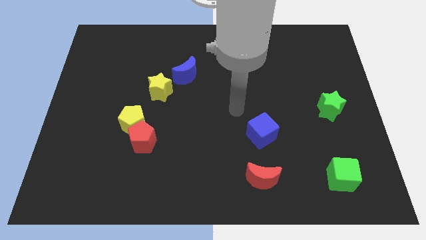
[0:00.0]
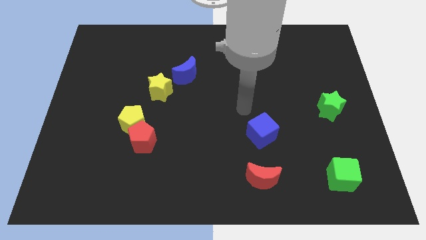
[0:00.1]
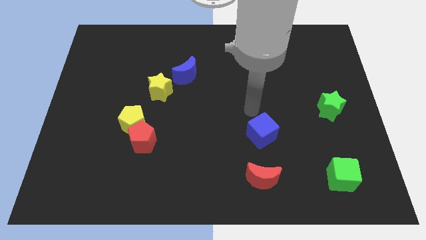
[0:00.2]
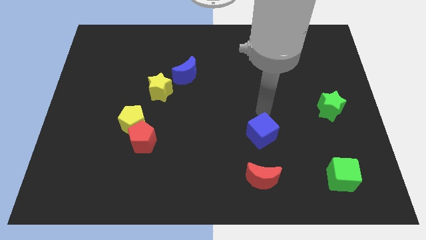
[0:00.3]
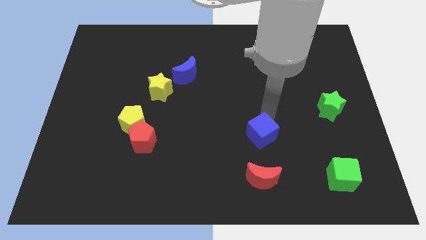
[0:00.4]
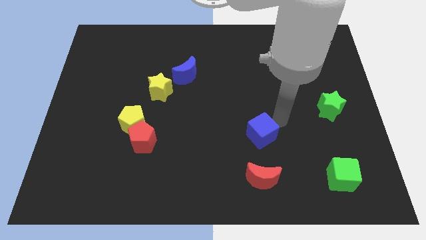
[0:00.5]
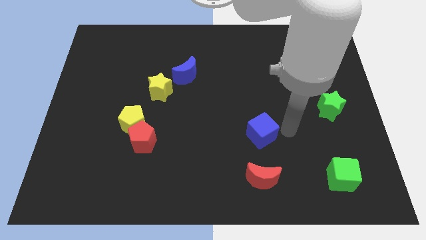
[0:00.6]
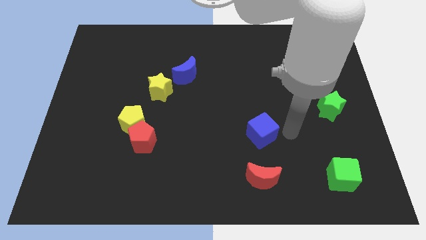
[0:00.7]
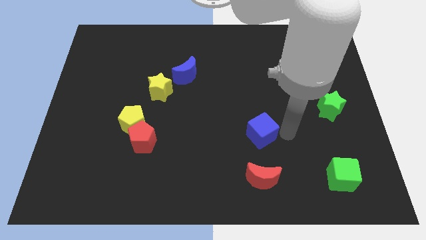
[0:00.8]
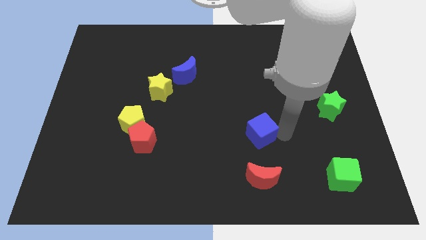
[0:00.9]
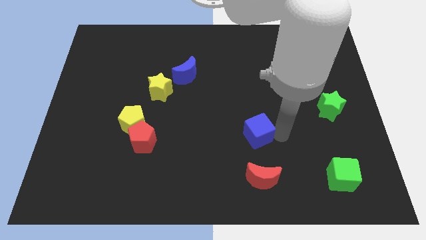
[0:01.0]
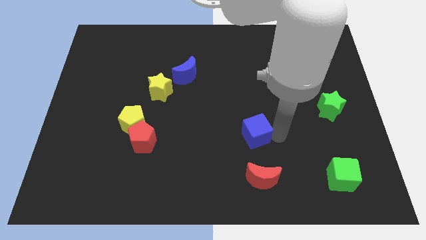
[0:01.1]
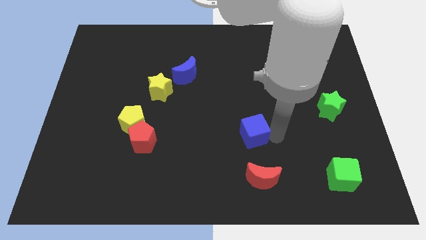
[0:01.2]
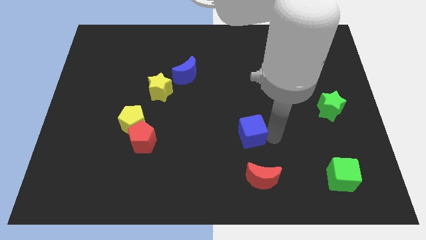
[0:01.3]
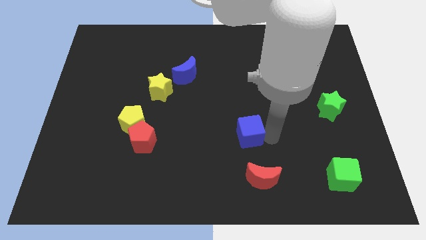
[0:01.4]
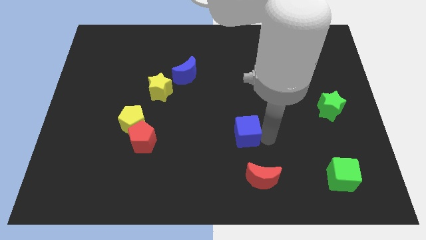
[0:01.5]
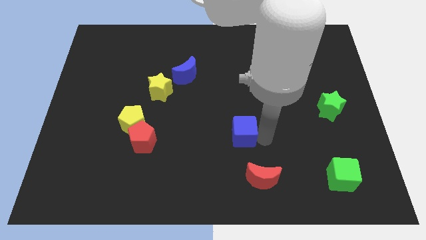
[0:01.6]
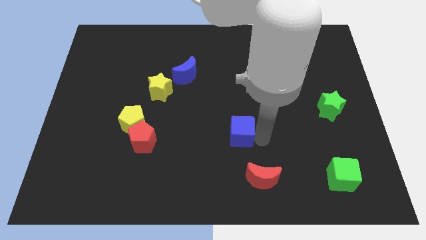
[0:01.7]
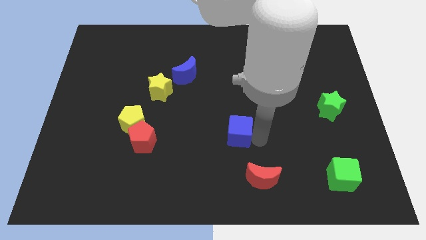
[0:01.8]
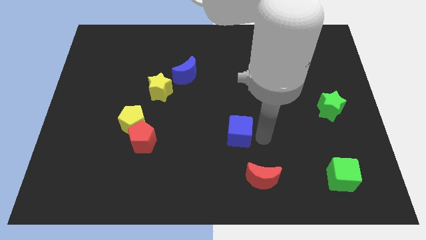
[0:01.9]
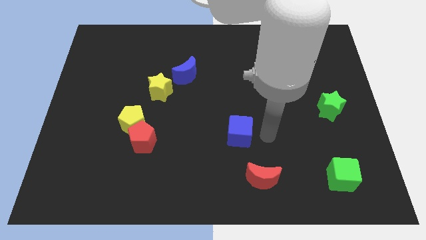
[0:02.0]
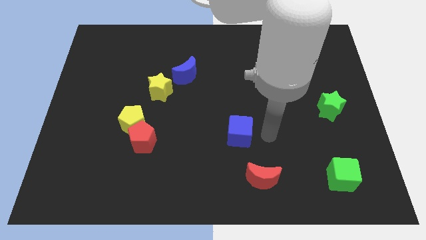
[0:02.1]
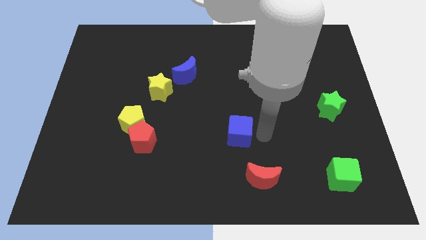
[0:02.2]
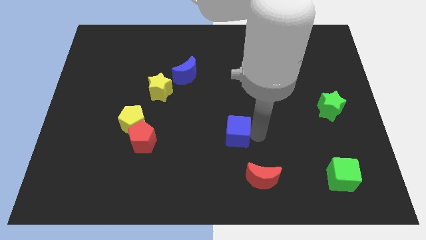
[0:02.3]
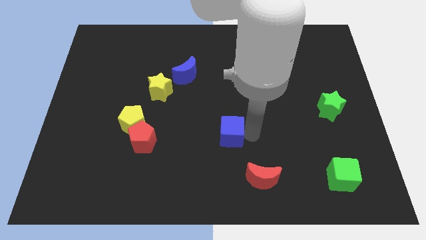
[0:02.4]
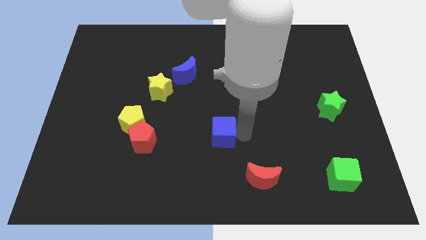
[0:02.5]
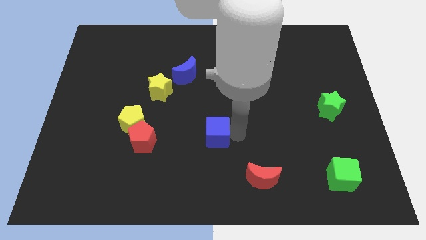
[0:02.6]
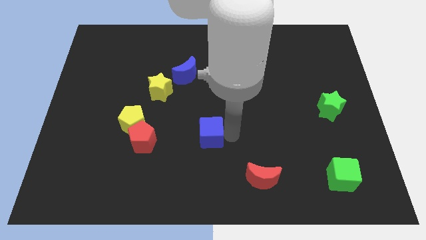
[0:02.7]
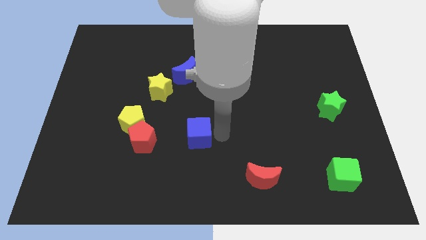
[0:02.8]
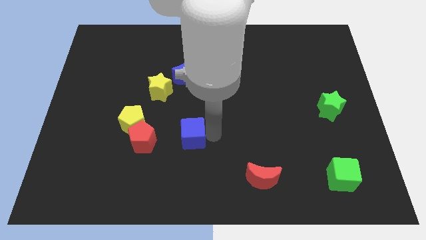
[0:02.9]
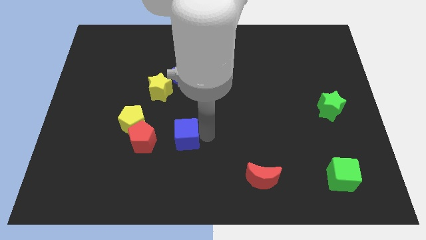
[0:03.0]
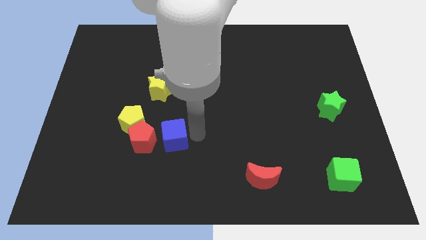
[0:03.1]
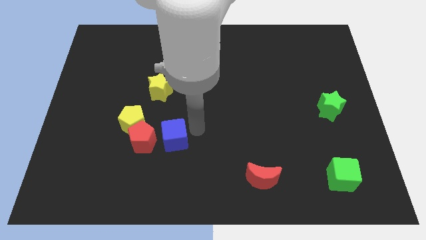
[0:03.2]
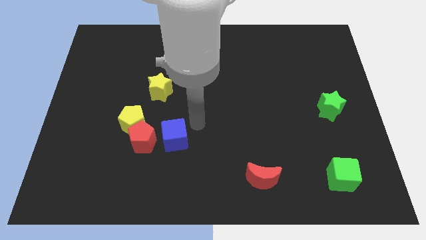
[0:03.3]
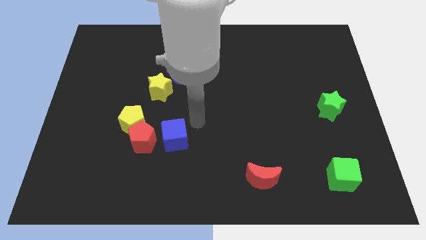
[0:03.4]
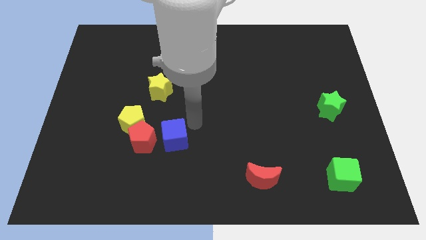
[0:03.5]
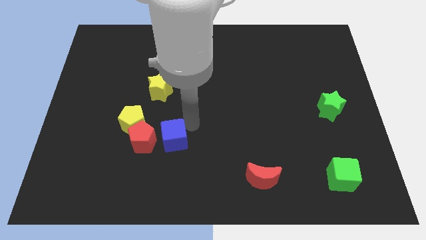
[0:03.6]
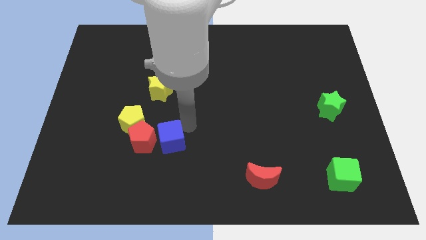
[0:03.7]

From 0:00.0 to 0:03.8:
move the blue cube left

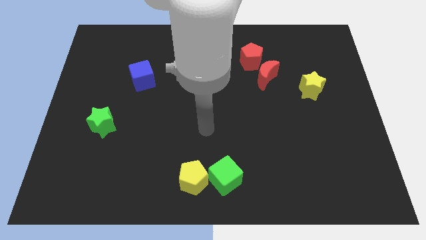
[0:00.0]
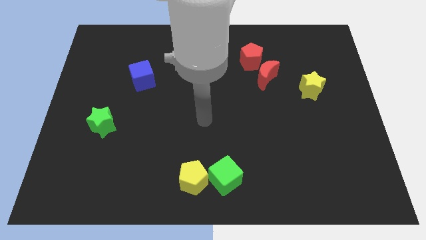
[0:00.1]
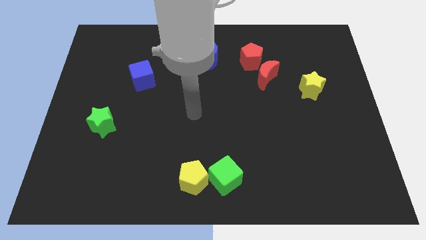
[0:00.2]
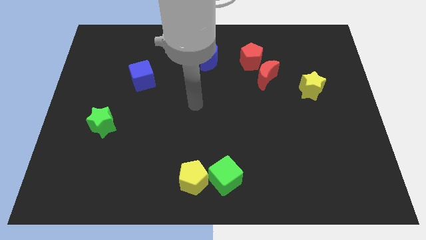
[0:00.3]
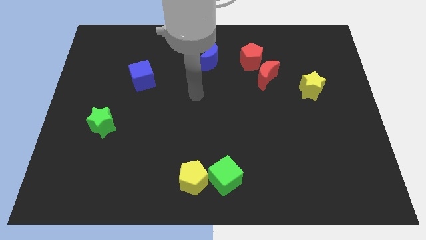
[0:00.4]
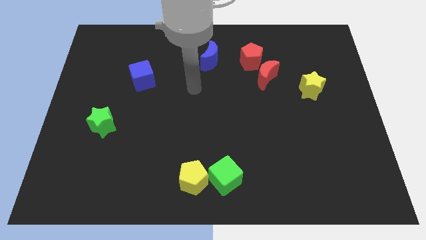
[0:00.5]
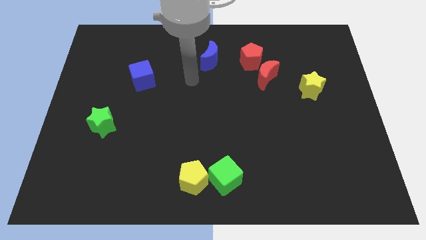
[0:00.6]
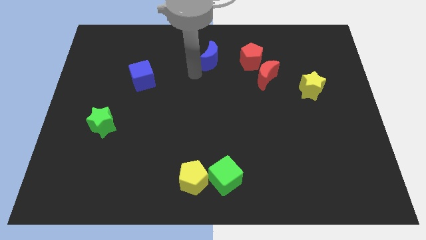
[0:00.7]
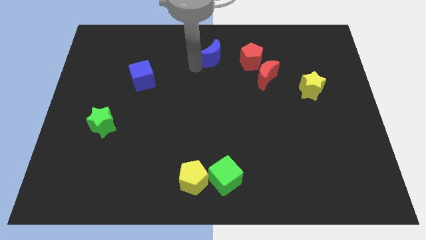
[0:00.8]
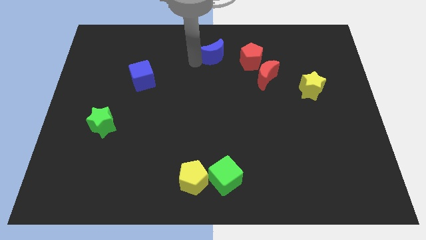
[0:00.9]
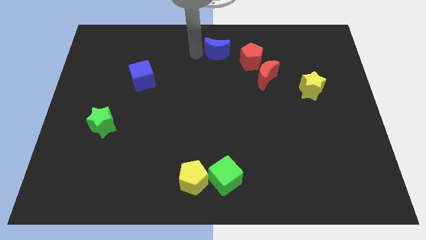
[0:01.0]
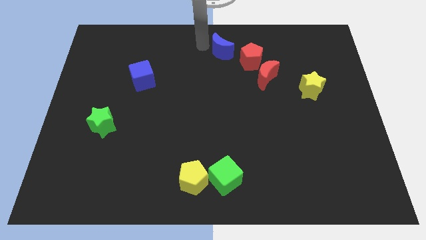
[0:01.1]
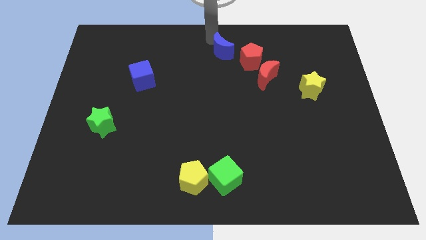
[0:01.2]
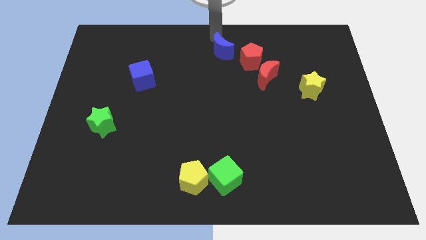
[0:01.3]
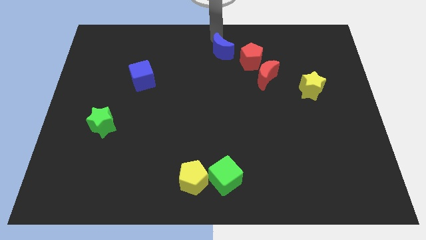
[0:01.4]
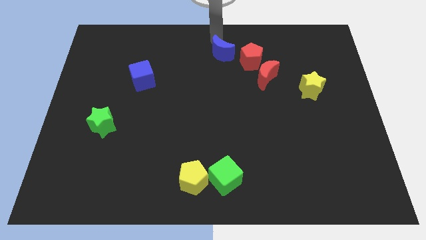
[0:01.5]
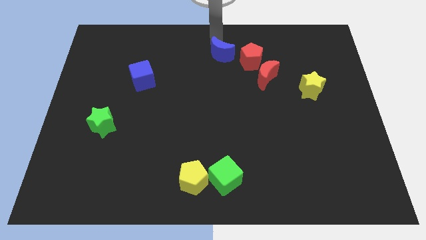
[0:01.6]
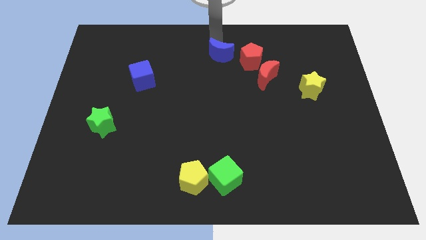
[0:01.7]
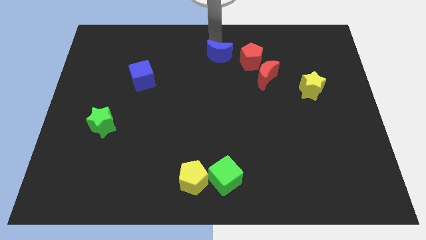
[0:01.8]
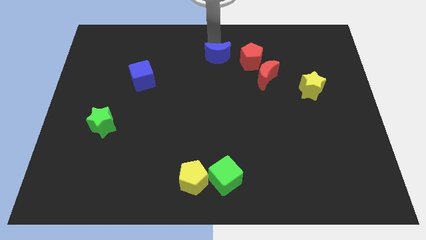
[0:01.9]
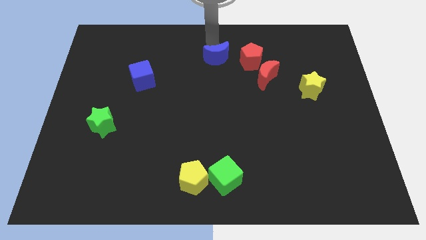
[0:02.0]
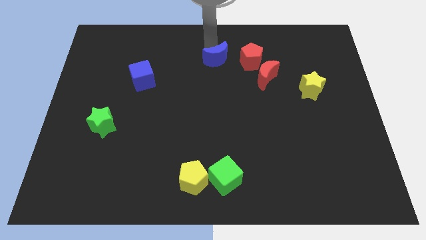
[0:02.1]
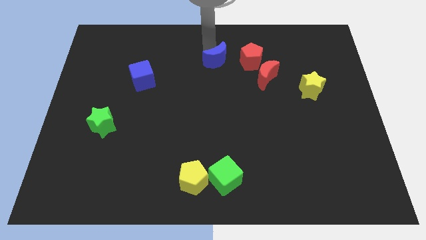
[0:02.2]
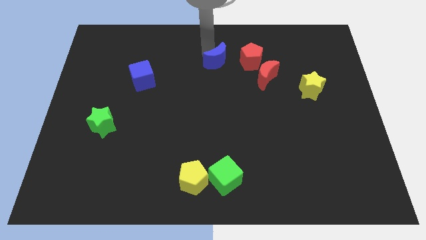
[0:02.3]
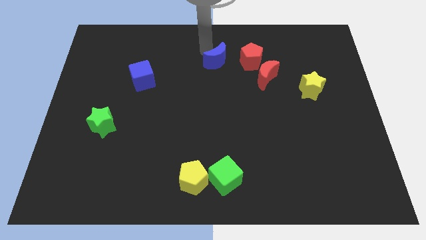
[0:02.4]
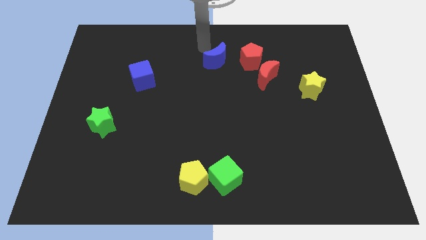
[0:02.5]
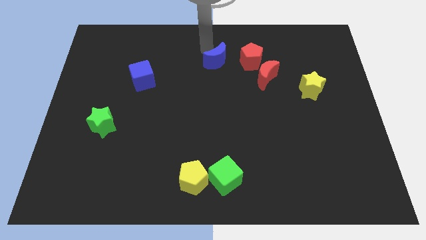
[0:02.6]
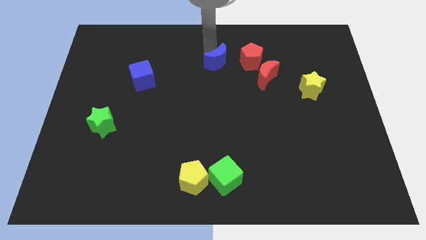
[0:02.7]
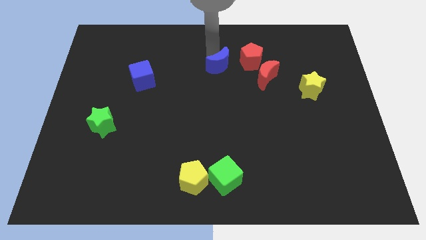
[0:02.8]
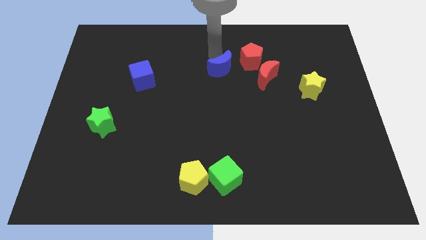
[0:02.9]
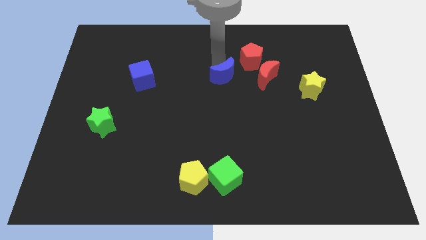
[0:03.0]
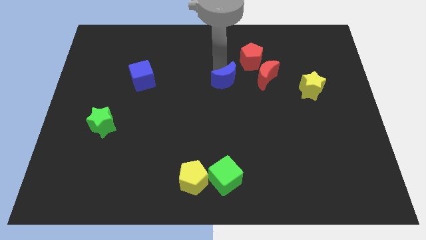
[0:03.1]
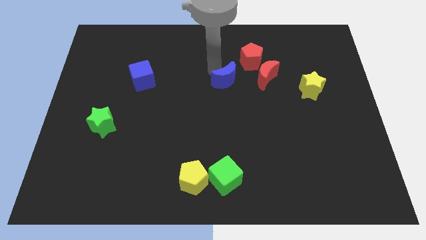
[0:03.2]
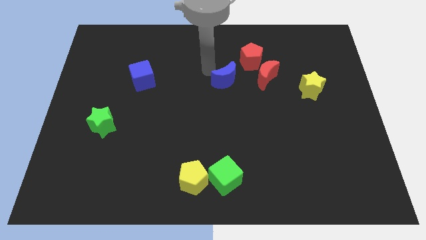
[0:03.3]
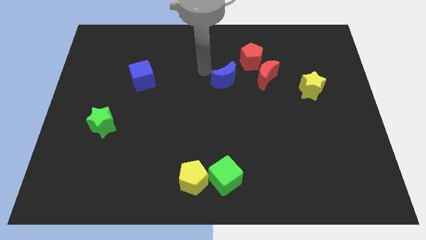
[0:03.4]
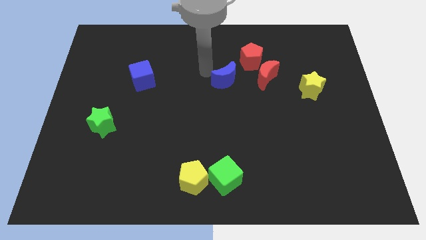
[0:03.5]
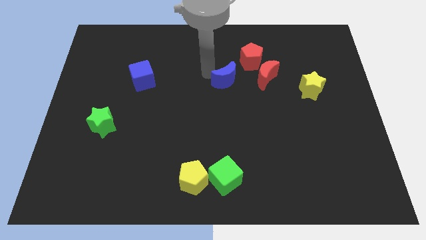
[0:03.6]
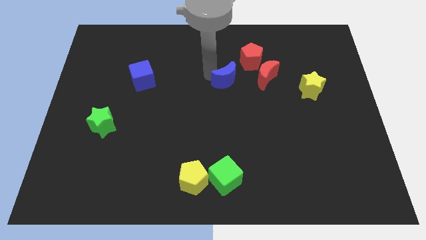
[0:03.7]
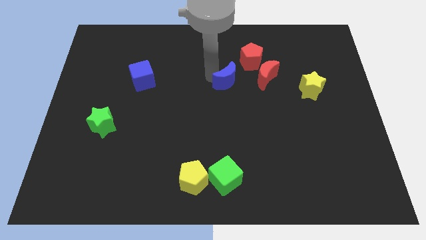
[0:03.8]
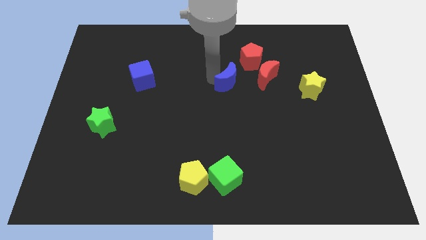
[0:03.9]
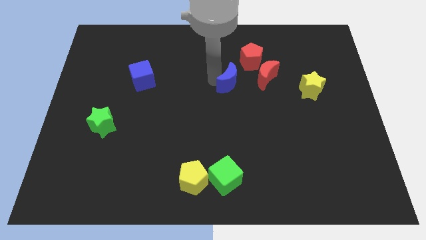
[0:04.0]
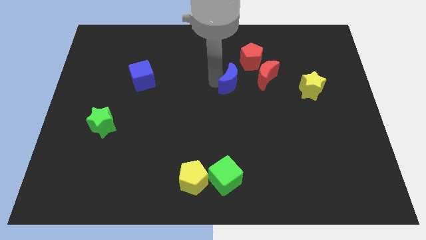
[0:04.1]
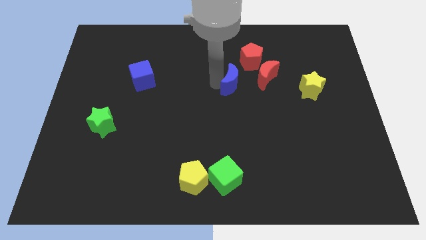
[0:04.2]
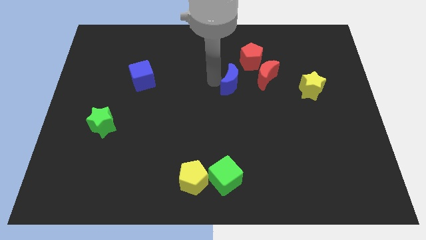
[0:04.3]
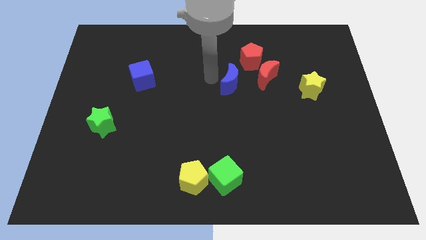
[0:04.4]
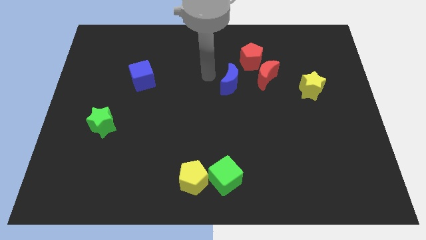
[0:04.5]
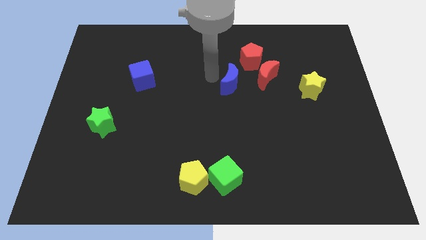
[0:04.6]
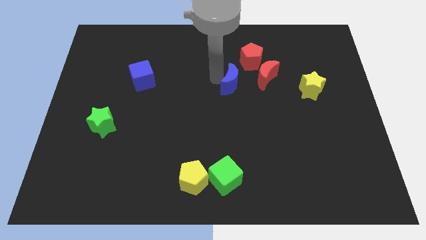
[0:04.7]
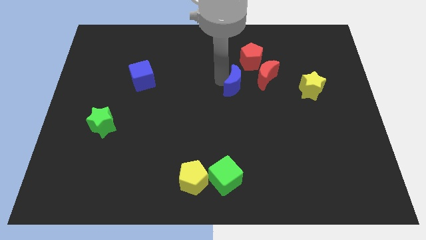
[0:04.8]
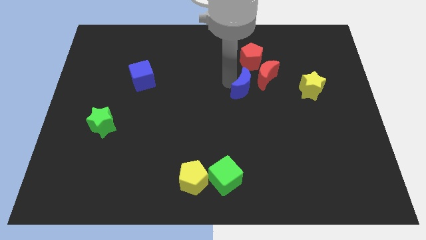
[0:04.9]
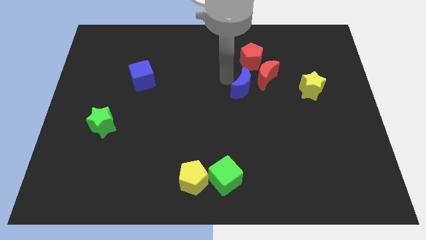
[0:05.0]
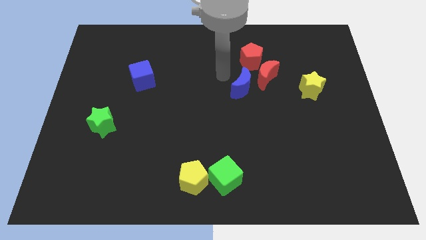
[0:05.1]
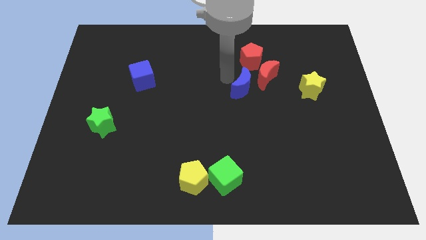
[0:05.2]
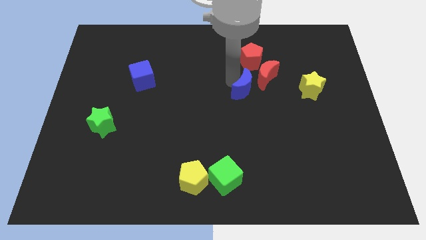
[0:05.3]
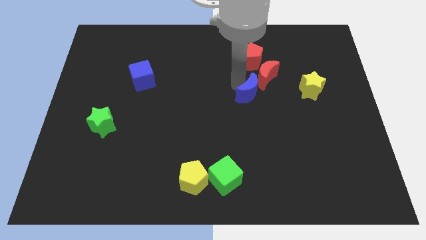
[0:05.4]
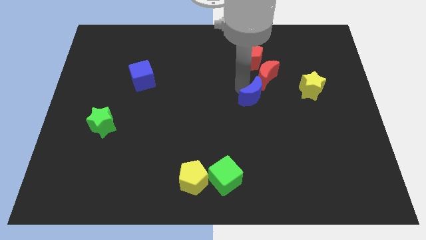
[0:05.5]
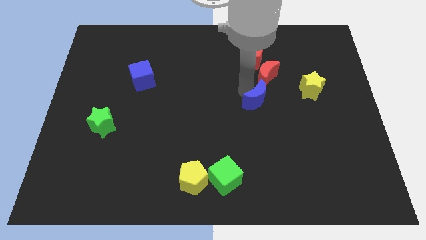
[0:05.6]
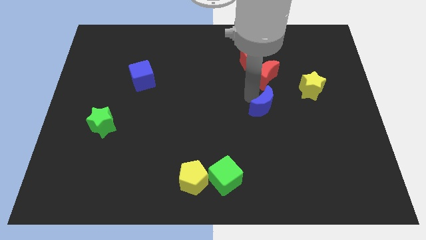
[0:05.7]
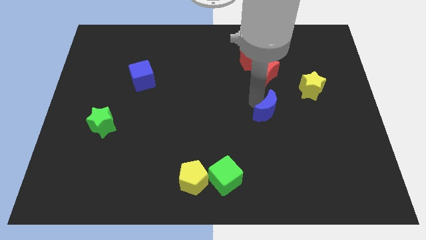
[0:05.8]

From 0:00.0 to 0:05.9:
move the blue moon downwards and right diagonally
